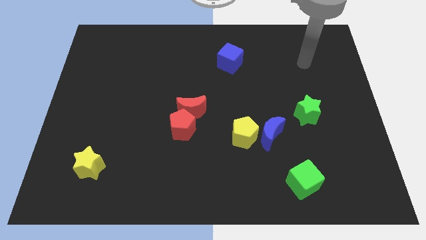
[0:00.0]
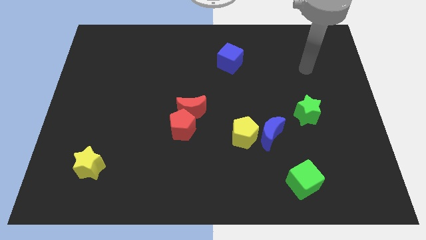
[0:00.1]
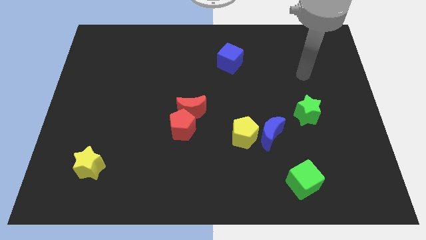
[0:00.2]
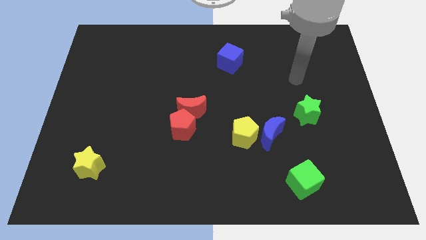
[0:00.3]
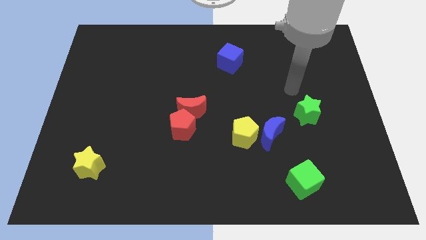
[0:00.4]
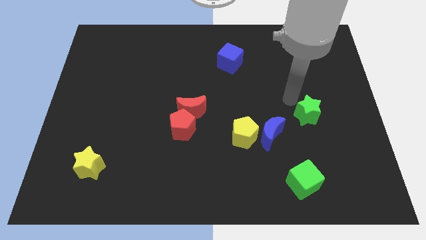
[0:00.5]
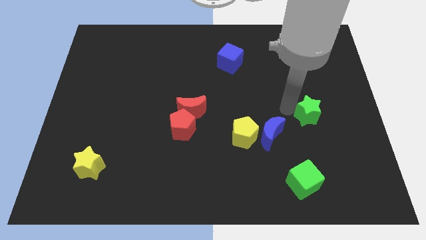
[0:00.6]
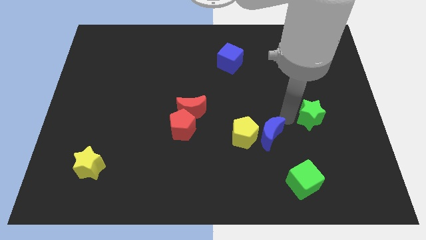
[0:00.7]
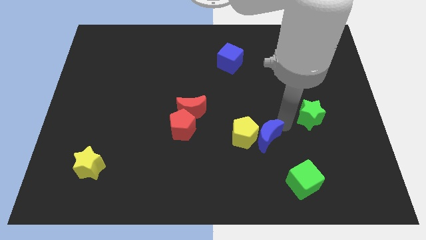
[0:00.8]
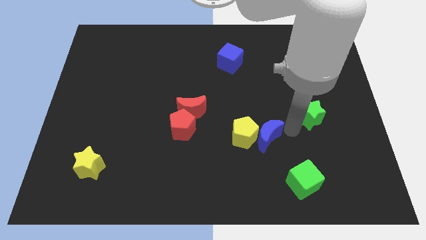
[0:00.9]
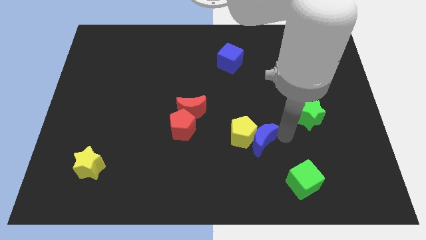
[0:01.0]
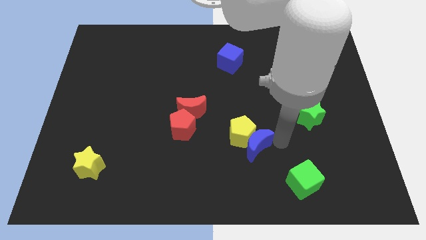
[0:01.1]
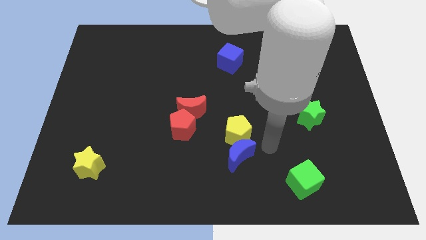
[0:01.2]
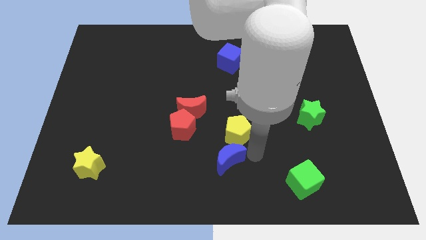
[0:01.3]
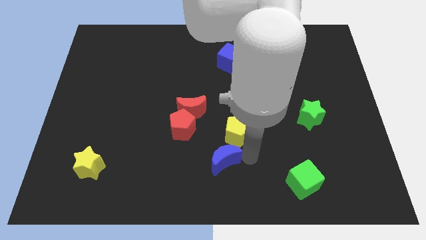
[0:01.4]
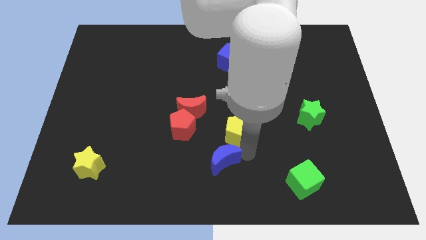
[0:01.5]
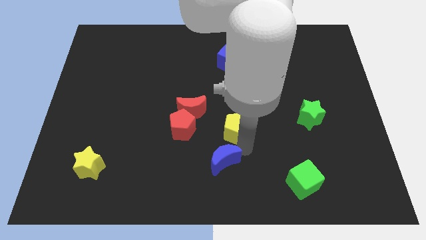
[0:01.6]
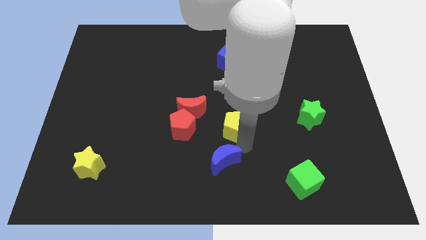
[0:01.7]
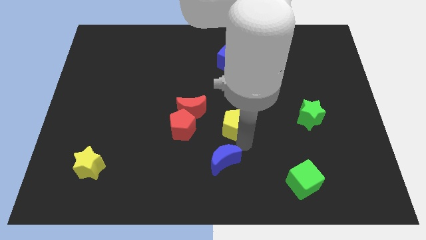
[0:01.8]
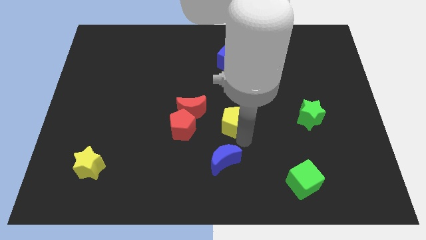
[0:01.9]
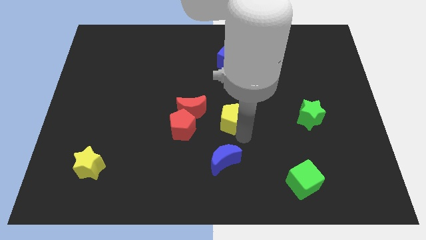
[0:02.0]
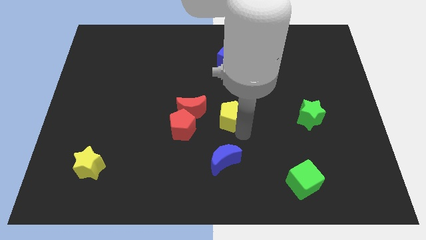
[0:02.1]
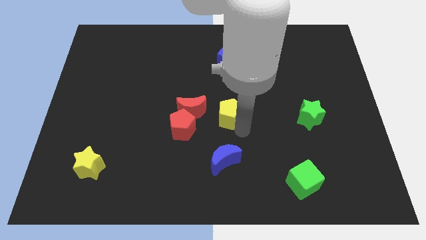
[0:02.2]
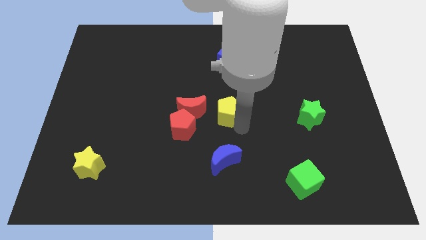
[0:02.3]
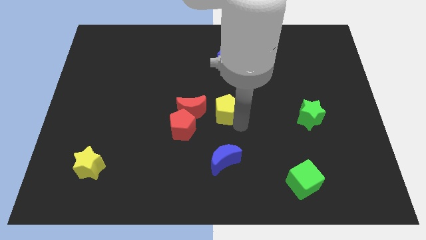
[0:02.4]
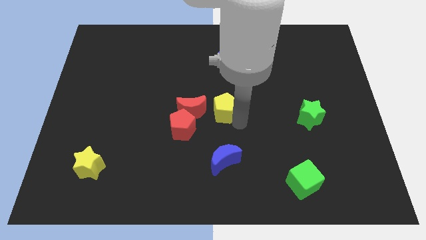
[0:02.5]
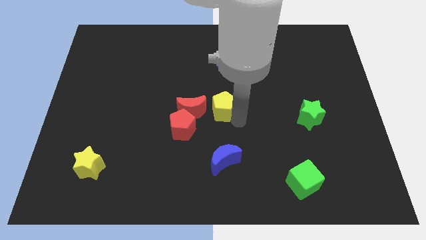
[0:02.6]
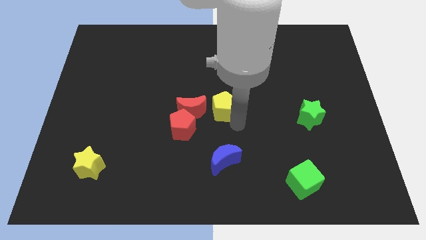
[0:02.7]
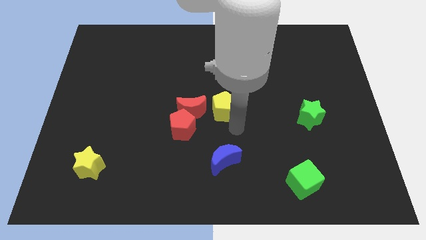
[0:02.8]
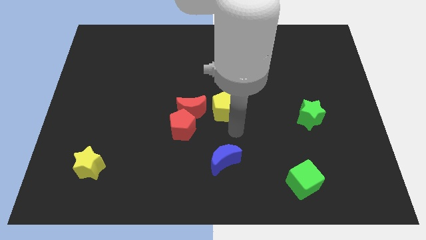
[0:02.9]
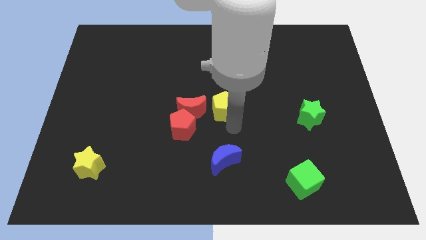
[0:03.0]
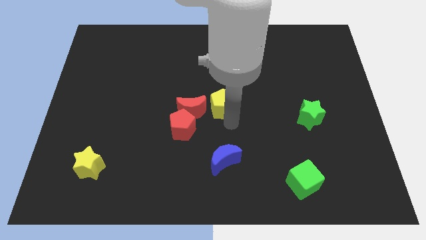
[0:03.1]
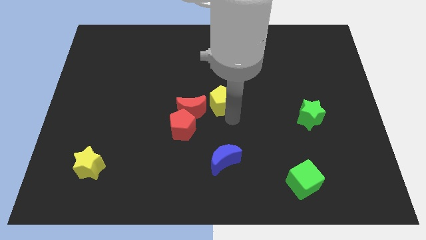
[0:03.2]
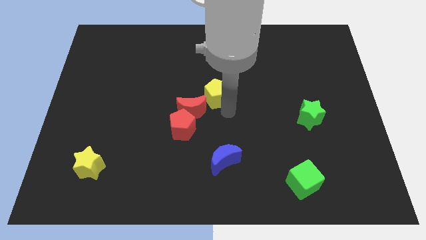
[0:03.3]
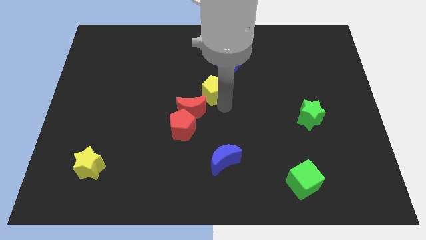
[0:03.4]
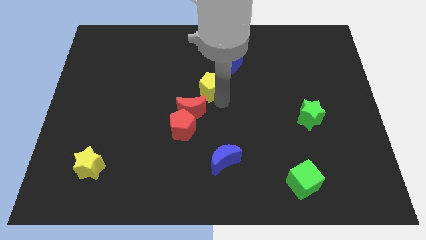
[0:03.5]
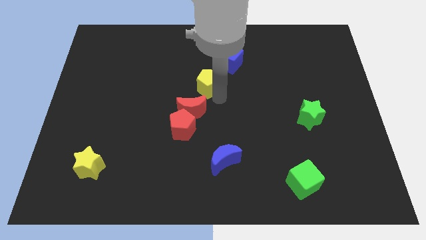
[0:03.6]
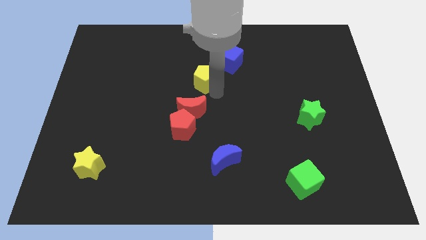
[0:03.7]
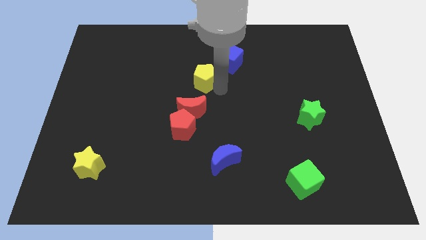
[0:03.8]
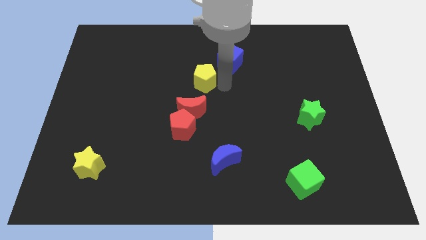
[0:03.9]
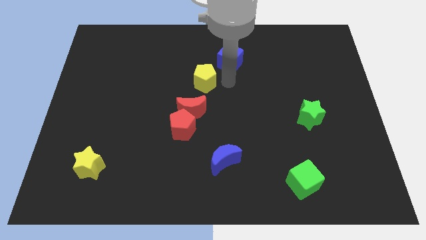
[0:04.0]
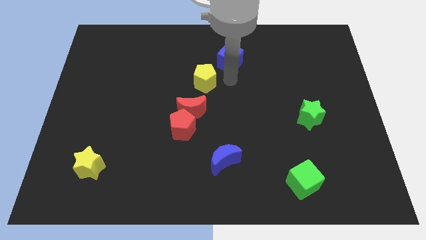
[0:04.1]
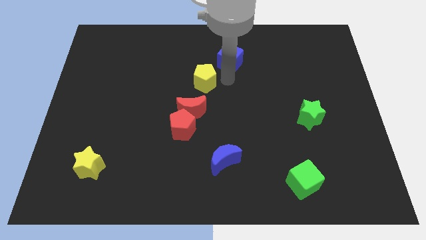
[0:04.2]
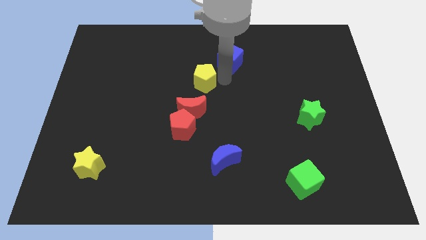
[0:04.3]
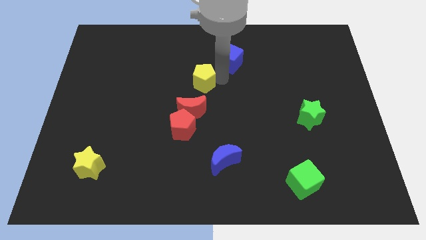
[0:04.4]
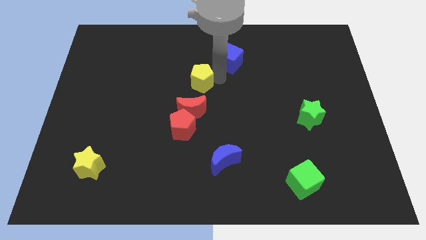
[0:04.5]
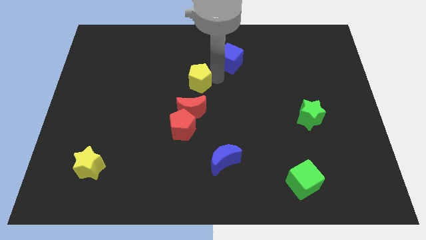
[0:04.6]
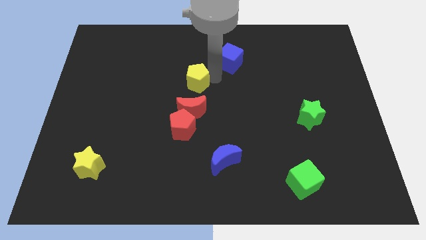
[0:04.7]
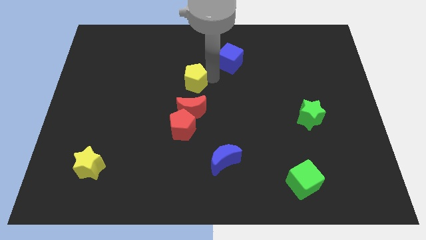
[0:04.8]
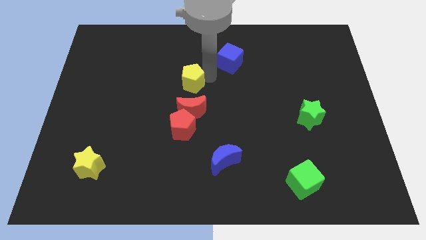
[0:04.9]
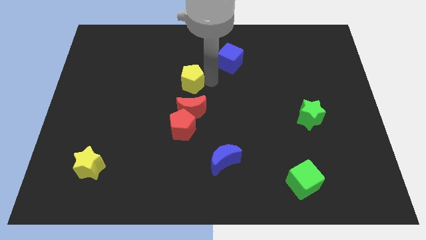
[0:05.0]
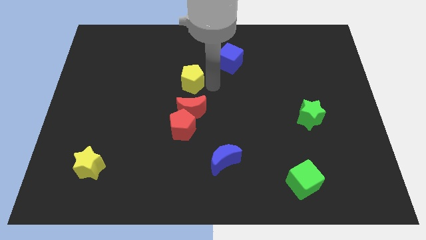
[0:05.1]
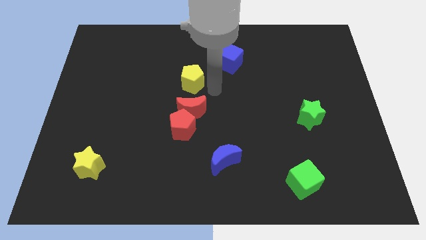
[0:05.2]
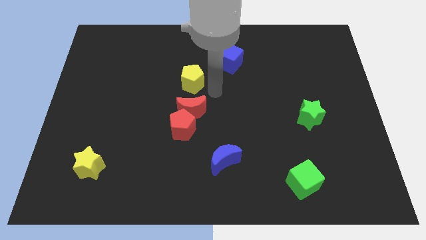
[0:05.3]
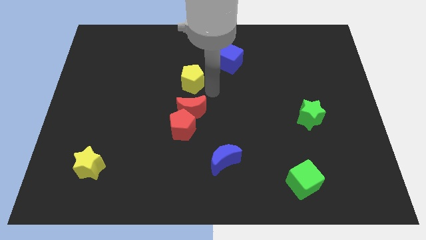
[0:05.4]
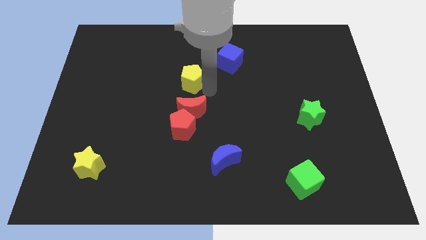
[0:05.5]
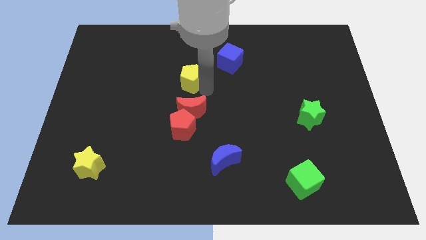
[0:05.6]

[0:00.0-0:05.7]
push the yellow pentagon upwards and left diagonally

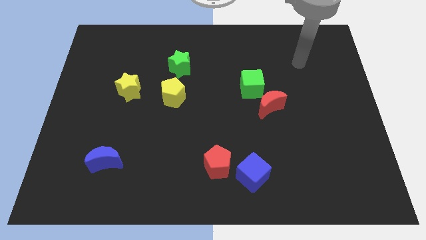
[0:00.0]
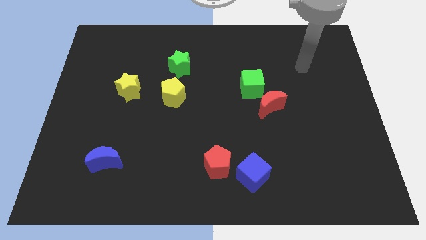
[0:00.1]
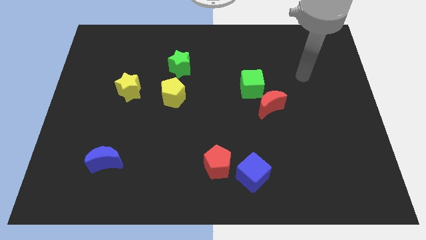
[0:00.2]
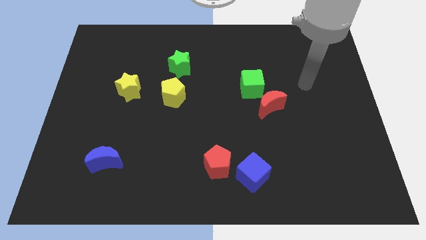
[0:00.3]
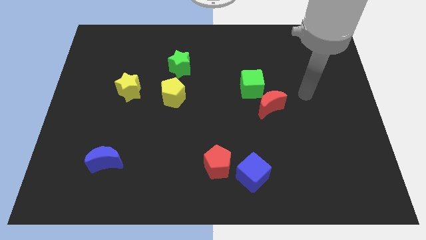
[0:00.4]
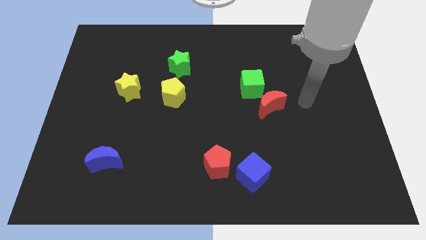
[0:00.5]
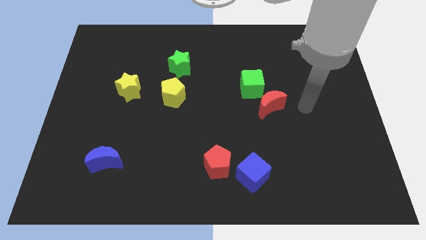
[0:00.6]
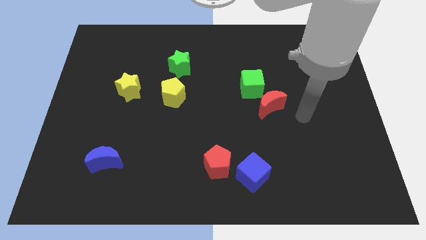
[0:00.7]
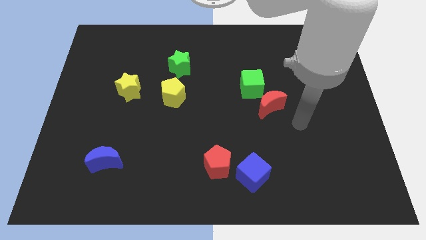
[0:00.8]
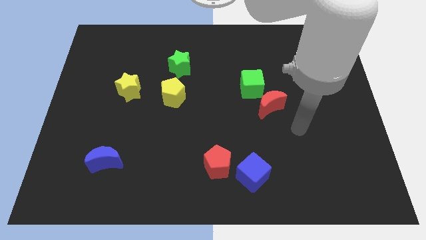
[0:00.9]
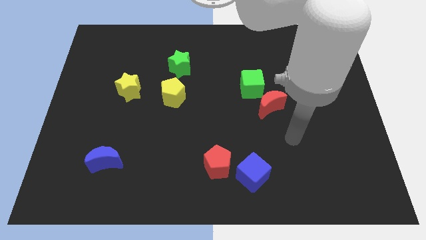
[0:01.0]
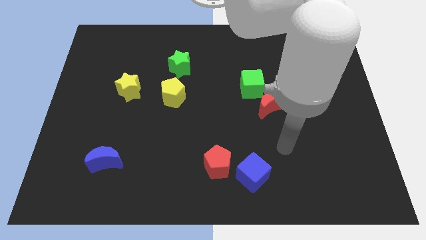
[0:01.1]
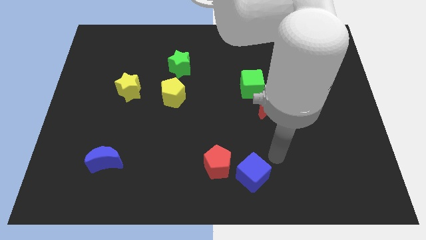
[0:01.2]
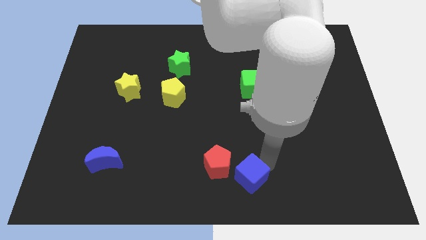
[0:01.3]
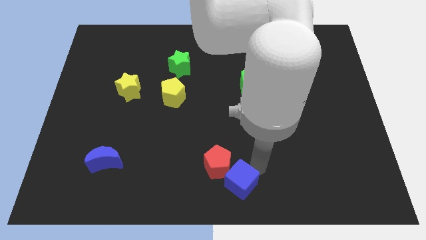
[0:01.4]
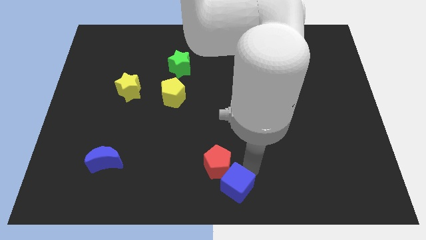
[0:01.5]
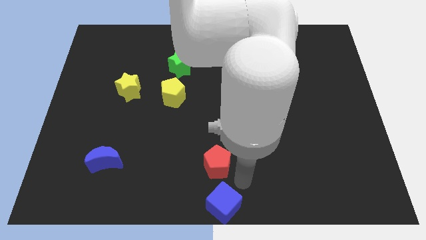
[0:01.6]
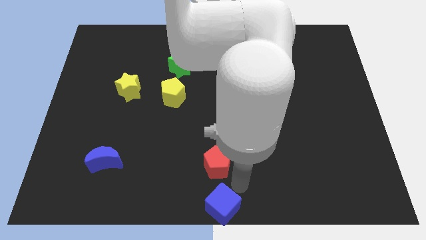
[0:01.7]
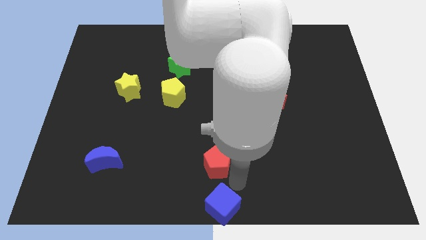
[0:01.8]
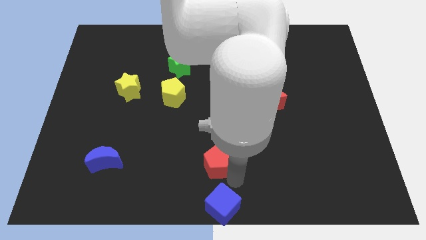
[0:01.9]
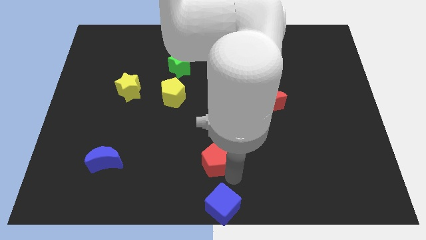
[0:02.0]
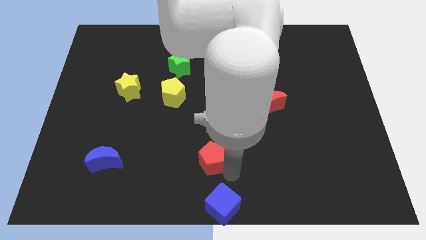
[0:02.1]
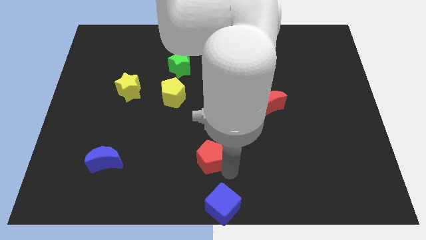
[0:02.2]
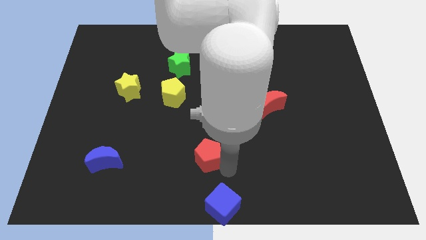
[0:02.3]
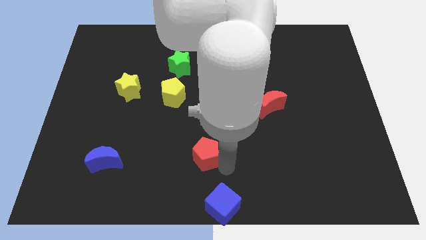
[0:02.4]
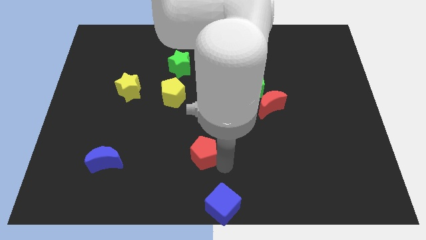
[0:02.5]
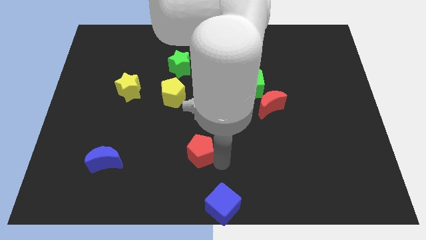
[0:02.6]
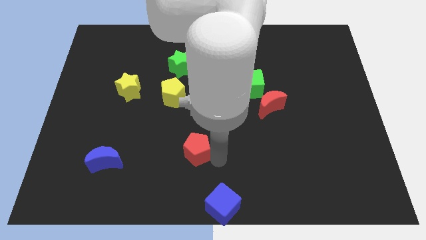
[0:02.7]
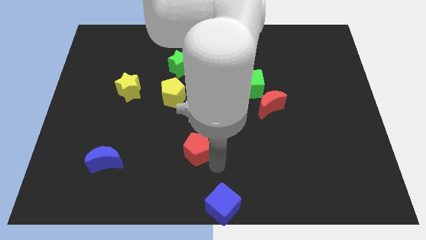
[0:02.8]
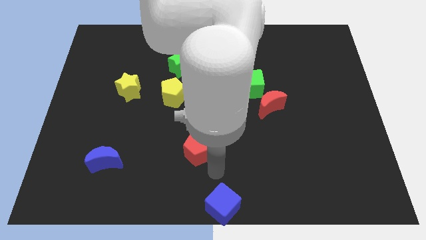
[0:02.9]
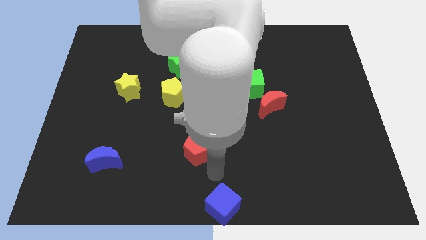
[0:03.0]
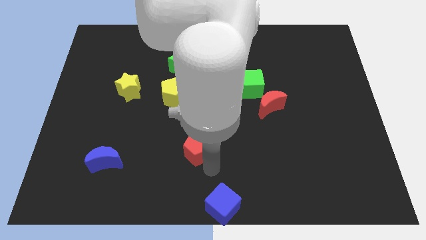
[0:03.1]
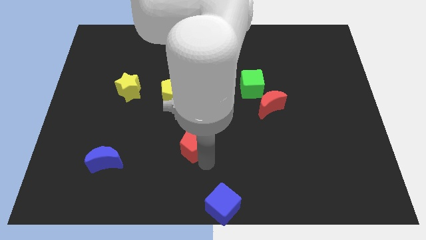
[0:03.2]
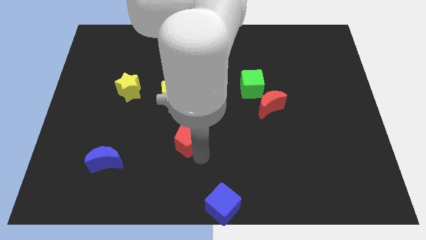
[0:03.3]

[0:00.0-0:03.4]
push the red pentagon upwards and then left a bit
